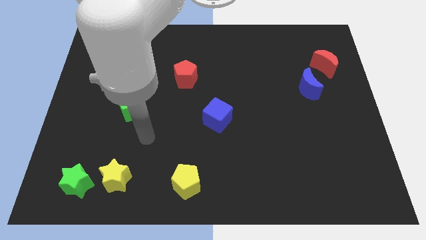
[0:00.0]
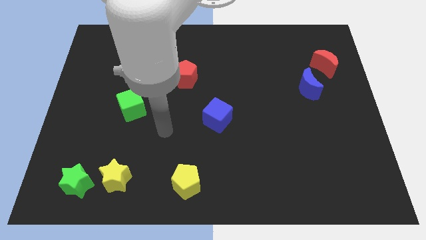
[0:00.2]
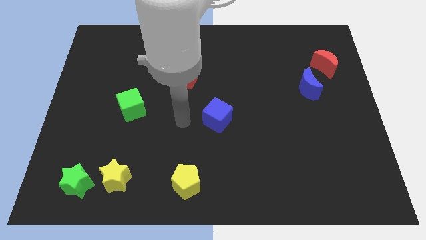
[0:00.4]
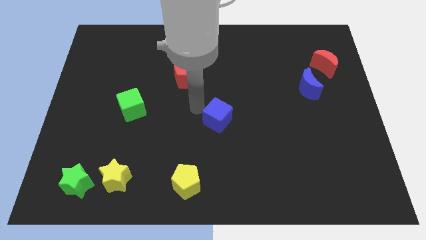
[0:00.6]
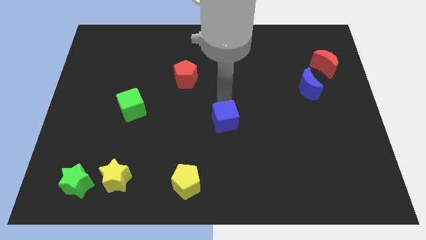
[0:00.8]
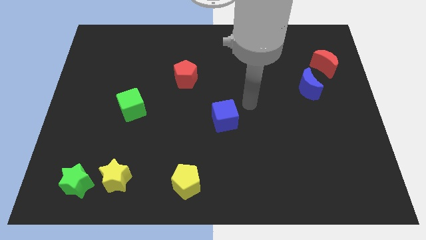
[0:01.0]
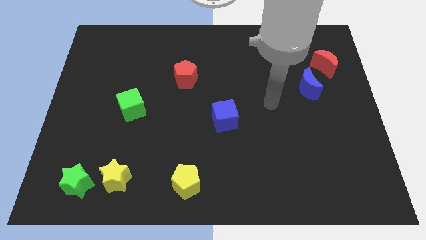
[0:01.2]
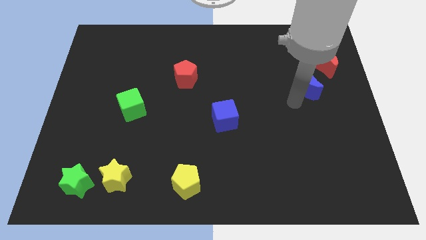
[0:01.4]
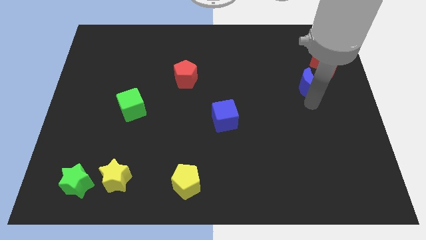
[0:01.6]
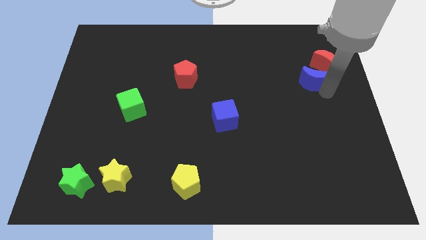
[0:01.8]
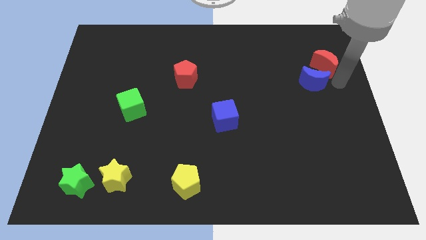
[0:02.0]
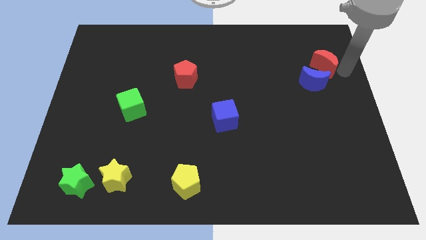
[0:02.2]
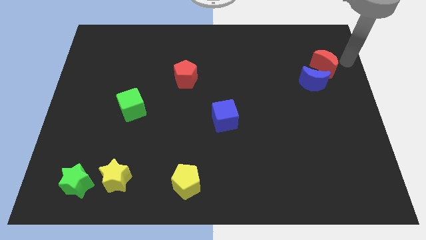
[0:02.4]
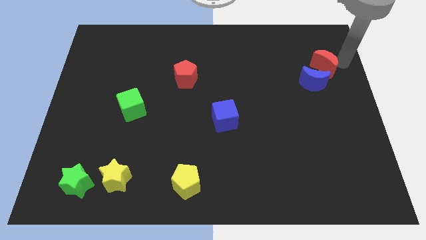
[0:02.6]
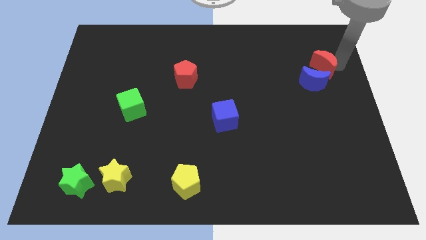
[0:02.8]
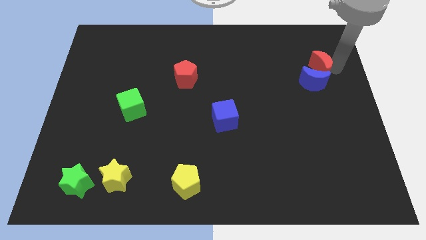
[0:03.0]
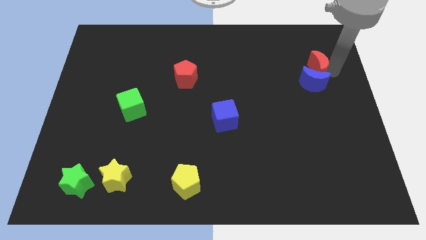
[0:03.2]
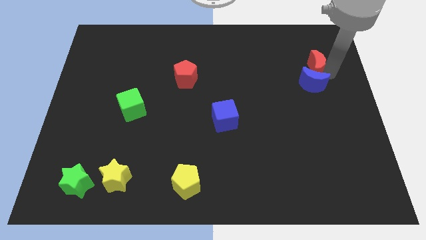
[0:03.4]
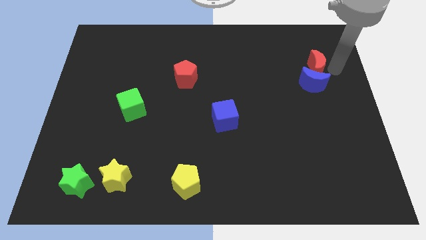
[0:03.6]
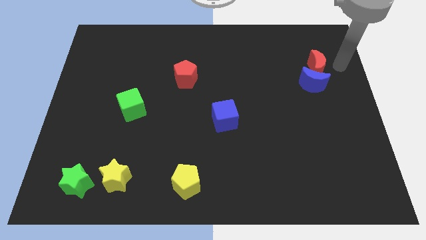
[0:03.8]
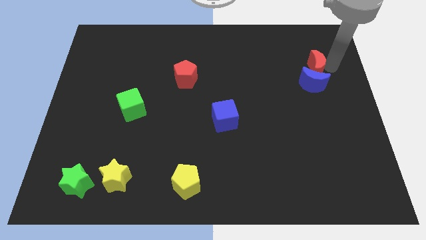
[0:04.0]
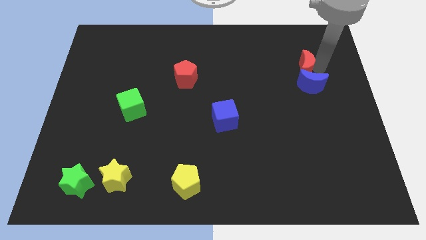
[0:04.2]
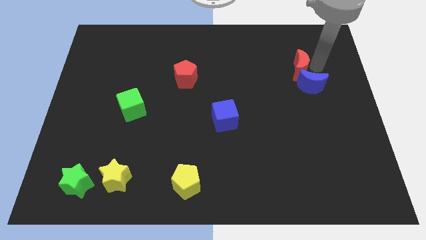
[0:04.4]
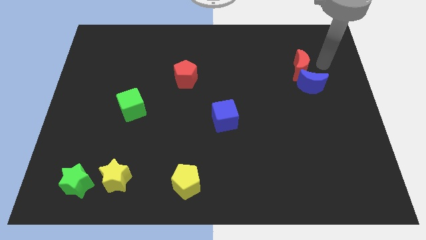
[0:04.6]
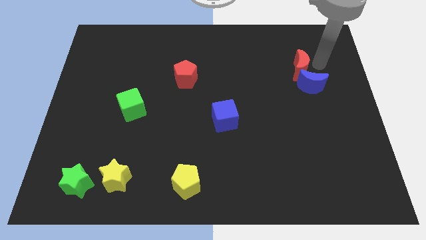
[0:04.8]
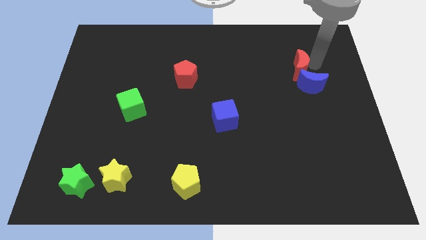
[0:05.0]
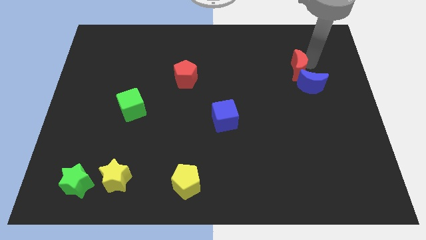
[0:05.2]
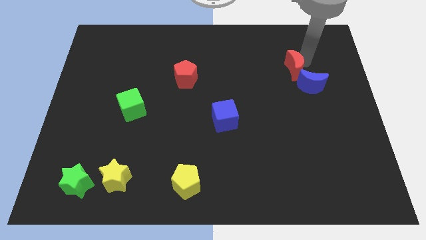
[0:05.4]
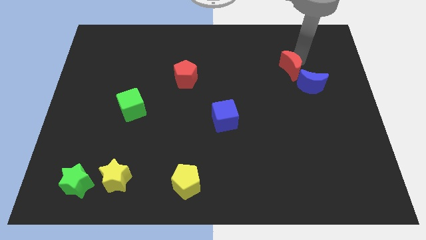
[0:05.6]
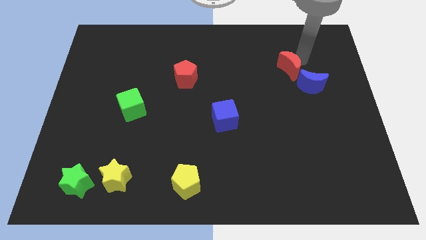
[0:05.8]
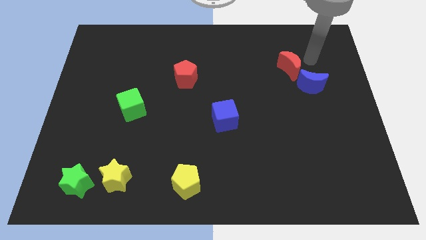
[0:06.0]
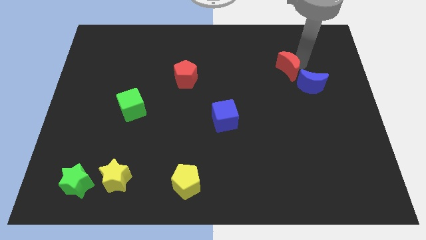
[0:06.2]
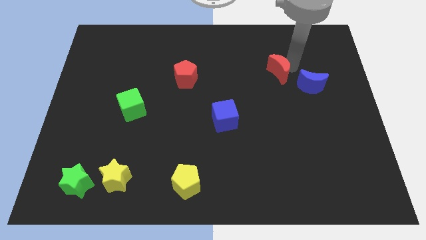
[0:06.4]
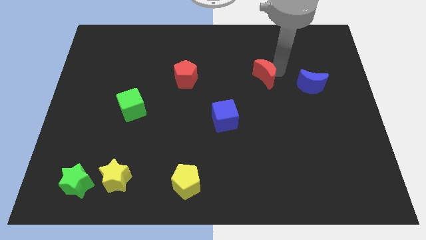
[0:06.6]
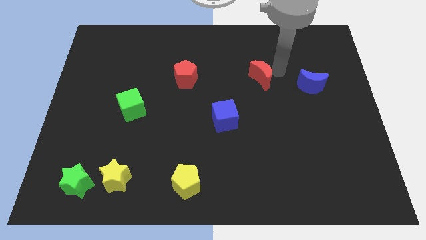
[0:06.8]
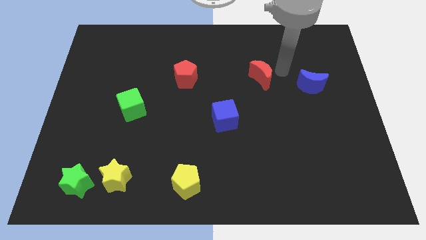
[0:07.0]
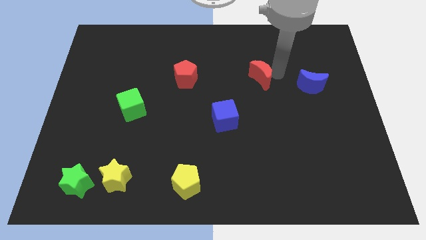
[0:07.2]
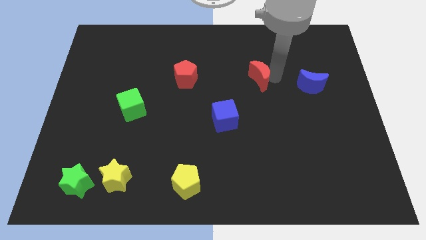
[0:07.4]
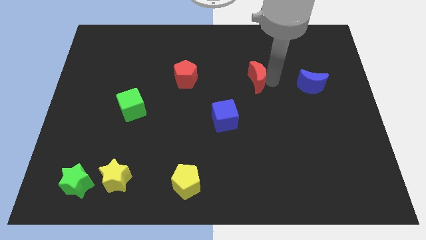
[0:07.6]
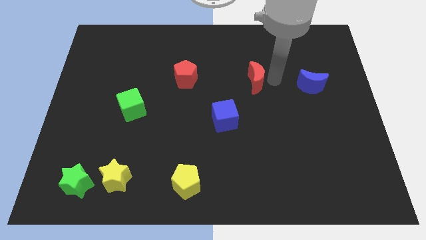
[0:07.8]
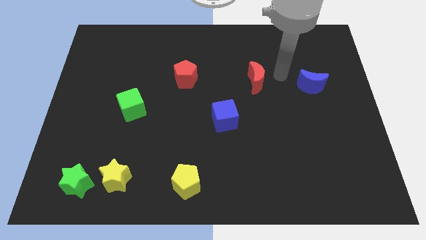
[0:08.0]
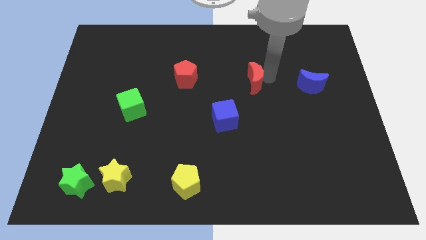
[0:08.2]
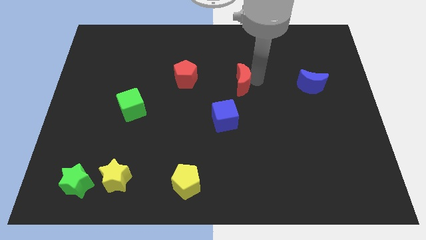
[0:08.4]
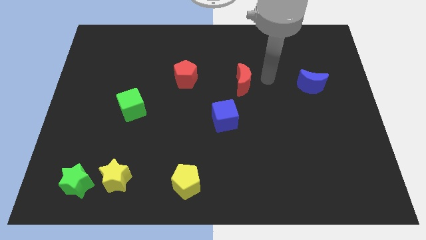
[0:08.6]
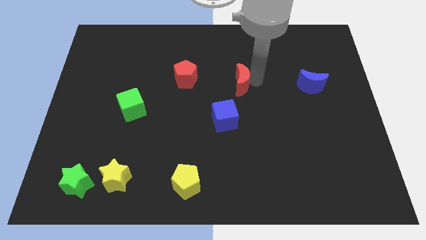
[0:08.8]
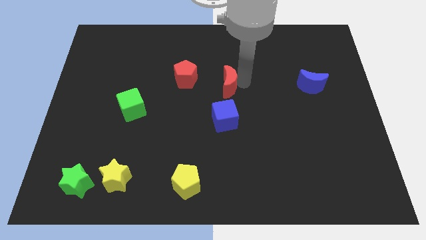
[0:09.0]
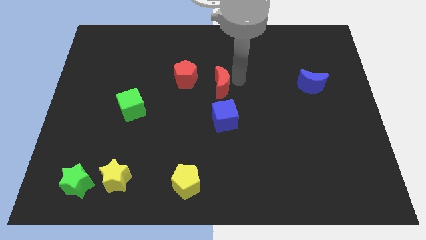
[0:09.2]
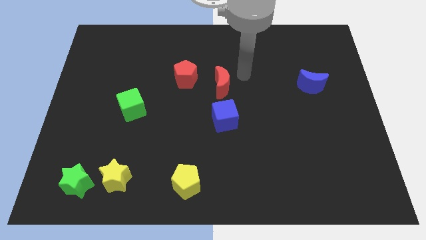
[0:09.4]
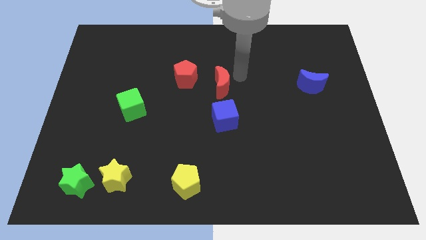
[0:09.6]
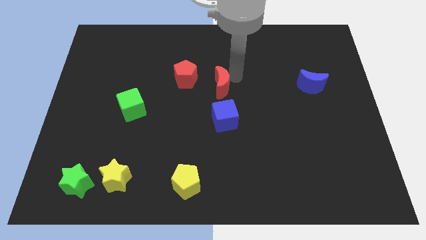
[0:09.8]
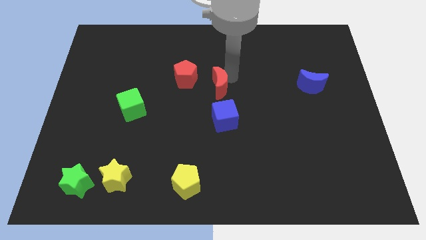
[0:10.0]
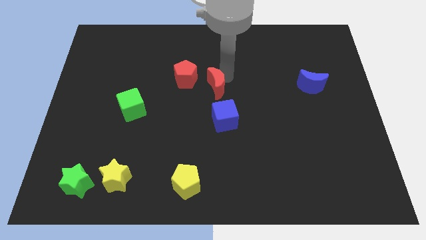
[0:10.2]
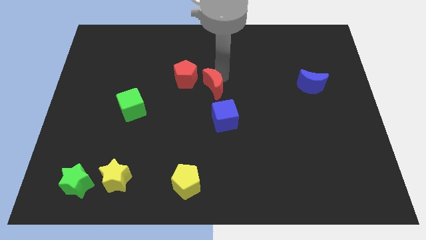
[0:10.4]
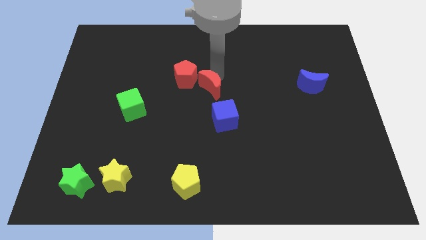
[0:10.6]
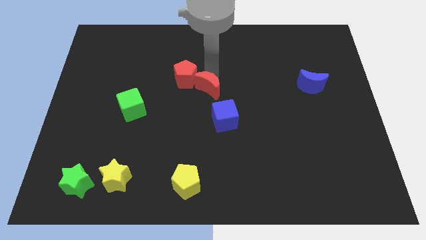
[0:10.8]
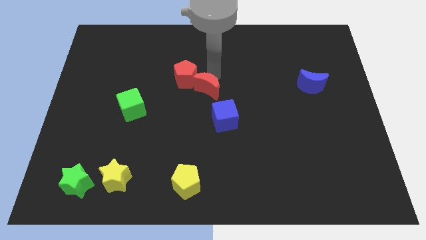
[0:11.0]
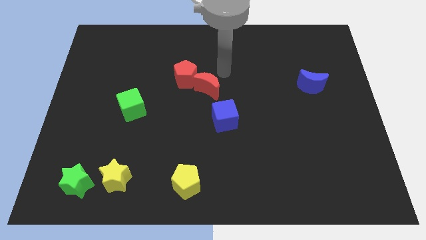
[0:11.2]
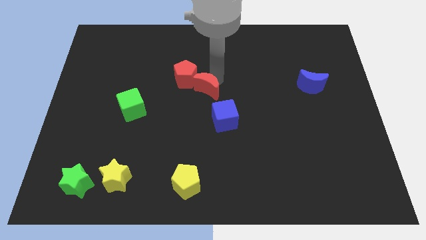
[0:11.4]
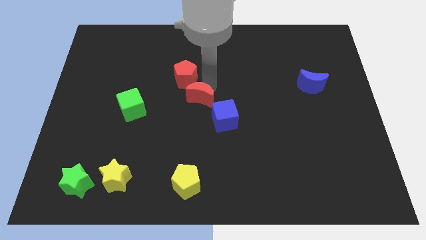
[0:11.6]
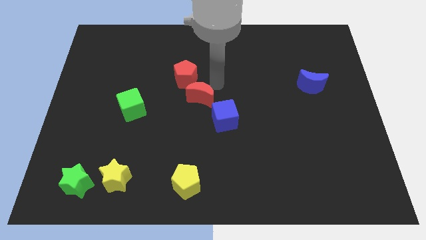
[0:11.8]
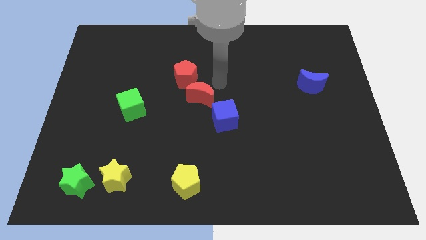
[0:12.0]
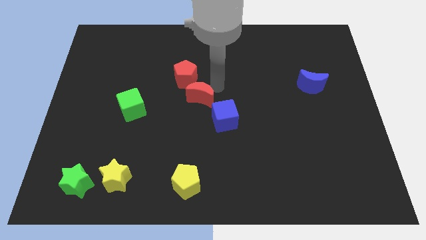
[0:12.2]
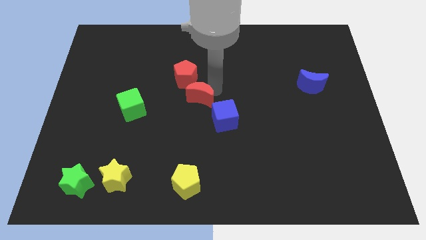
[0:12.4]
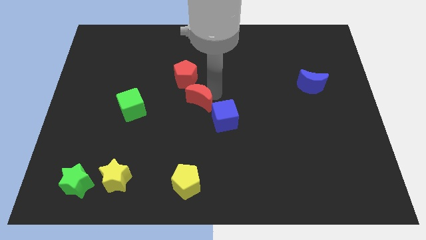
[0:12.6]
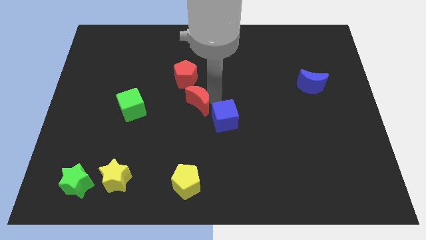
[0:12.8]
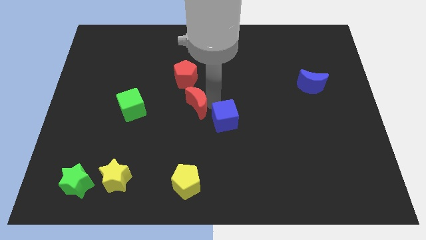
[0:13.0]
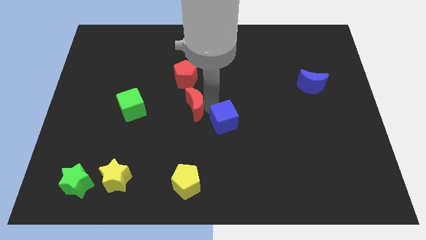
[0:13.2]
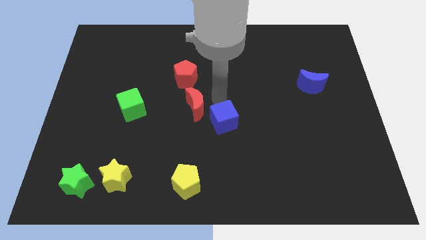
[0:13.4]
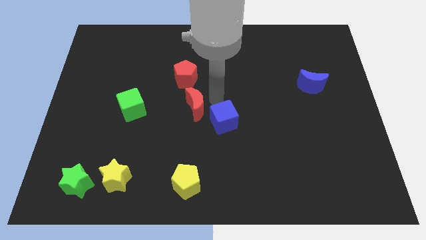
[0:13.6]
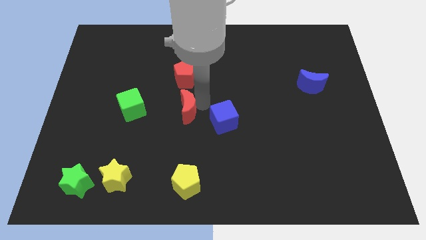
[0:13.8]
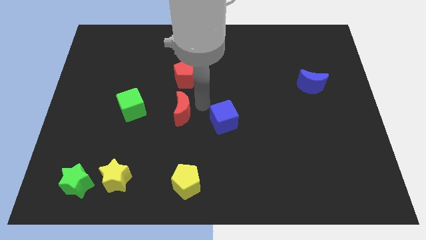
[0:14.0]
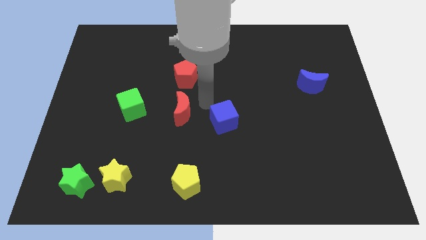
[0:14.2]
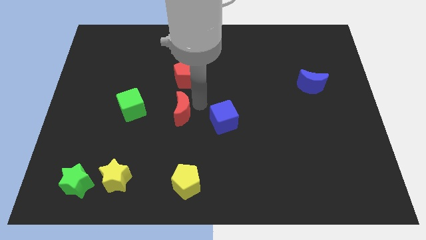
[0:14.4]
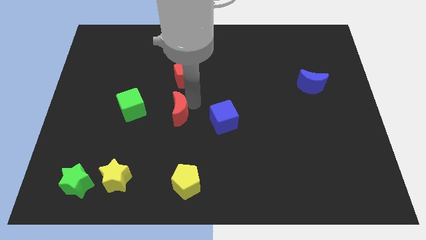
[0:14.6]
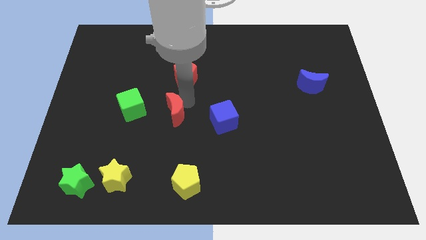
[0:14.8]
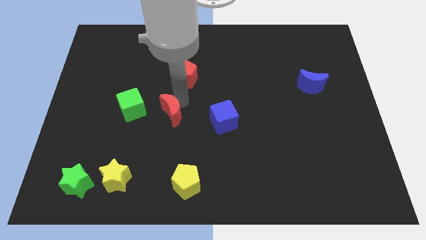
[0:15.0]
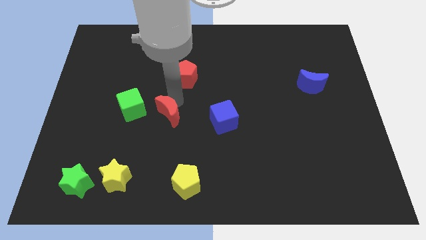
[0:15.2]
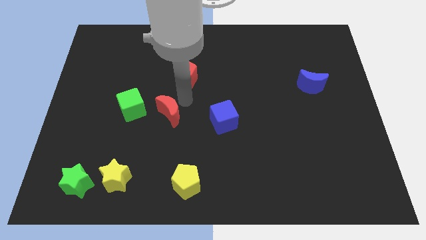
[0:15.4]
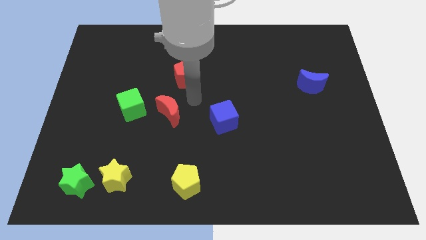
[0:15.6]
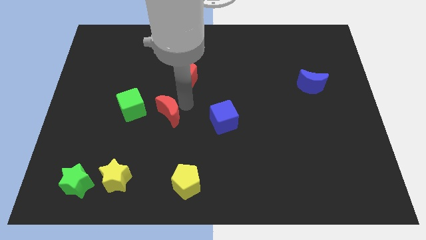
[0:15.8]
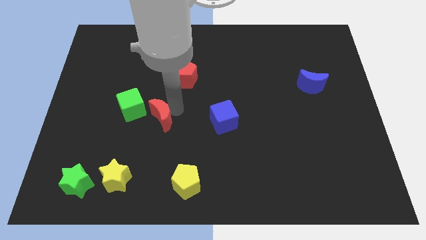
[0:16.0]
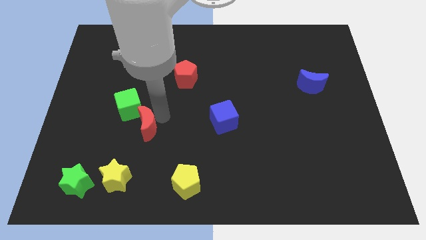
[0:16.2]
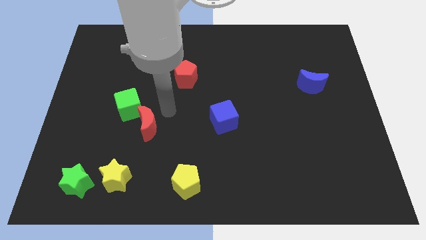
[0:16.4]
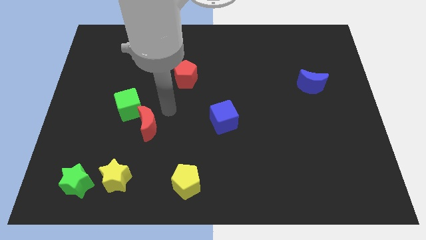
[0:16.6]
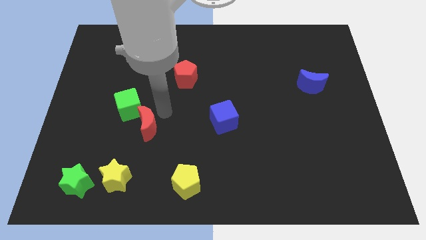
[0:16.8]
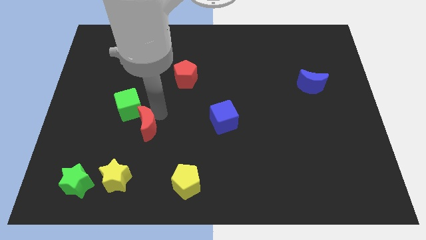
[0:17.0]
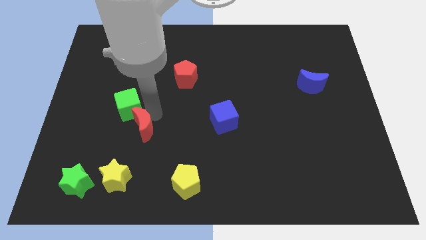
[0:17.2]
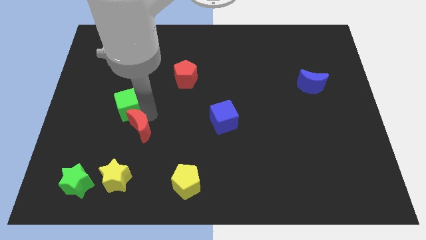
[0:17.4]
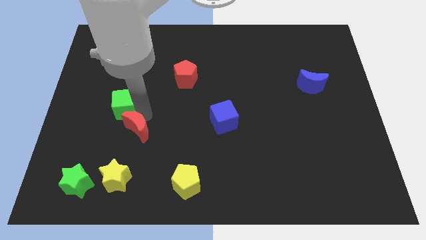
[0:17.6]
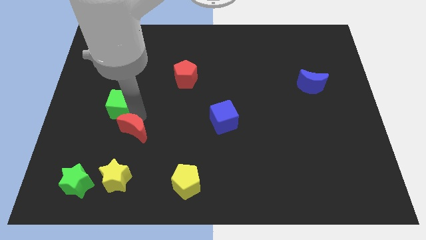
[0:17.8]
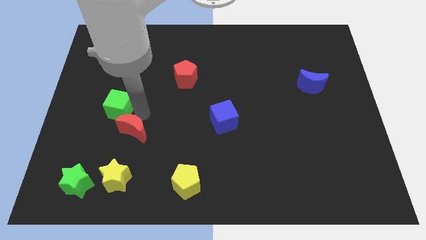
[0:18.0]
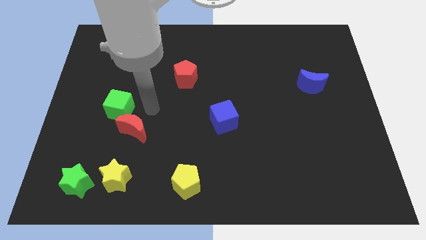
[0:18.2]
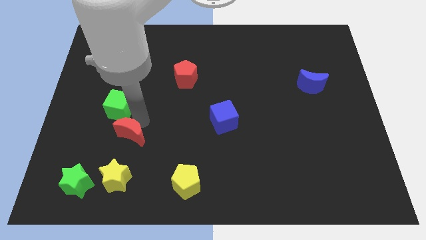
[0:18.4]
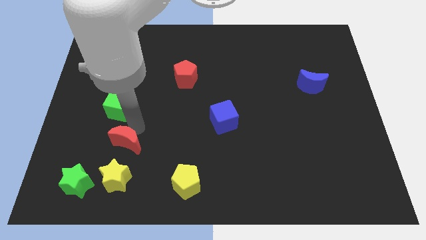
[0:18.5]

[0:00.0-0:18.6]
move the red moon diagonally up and to the right of the green star
